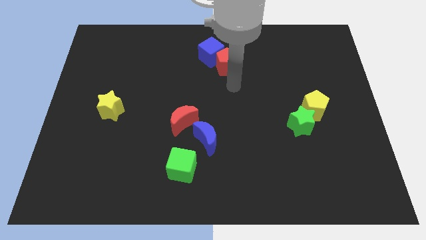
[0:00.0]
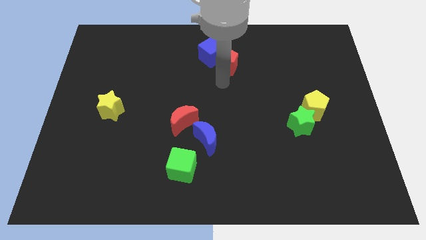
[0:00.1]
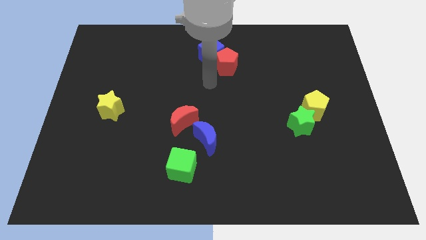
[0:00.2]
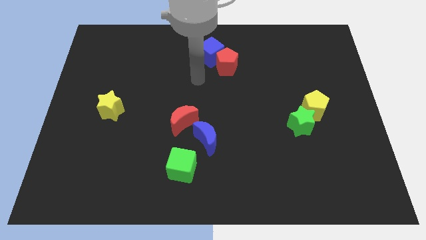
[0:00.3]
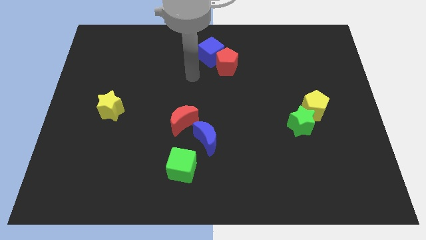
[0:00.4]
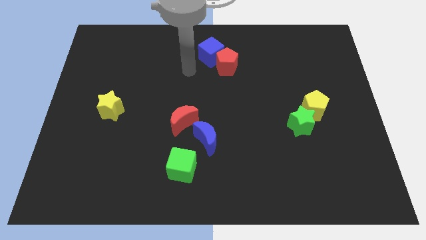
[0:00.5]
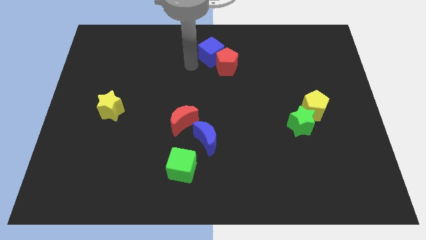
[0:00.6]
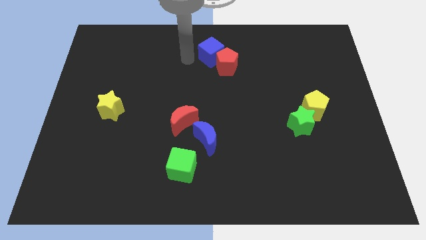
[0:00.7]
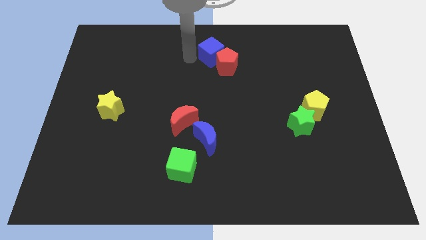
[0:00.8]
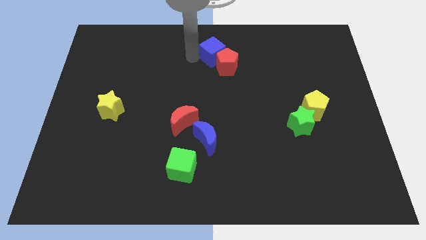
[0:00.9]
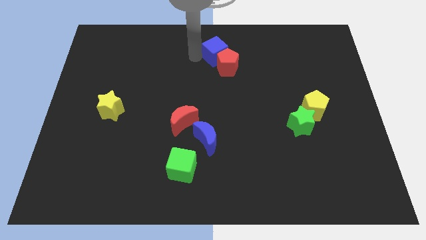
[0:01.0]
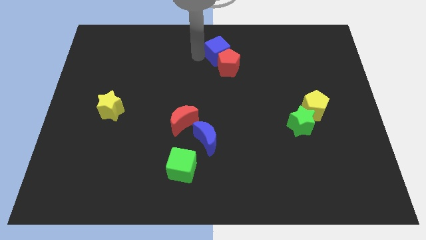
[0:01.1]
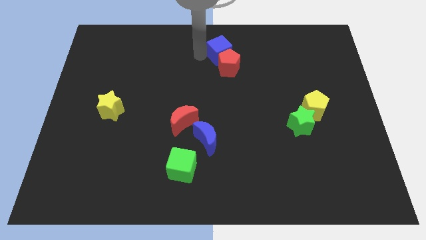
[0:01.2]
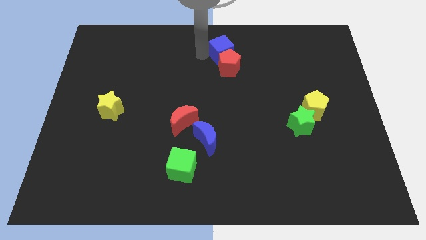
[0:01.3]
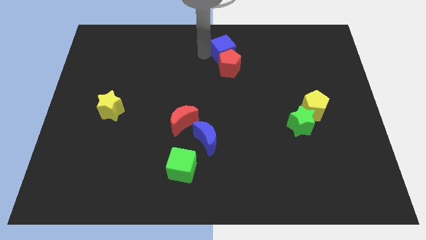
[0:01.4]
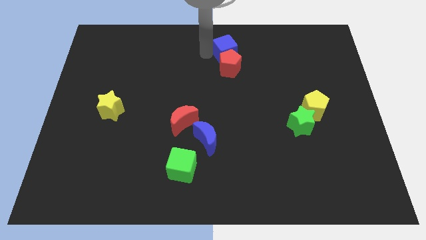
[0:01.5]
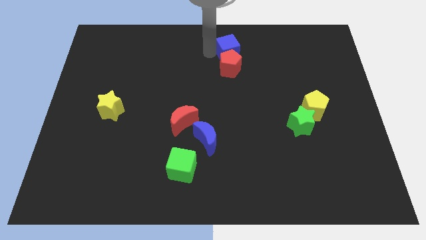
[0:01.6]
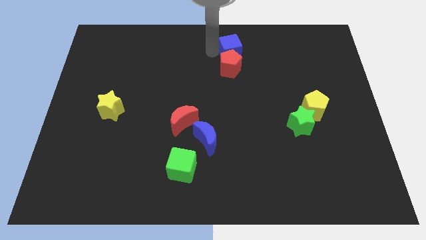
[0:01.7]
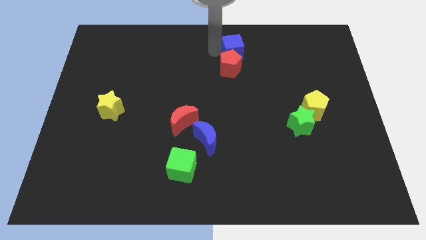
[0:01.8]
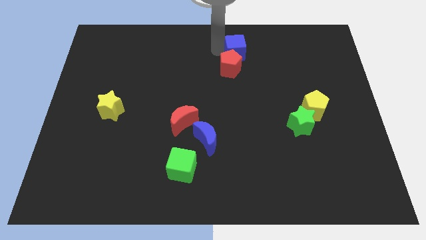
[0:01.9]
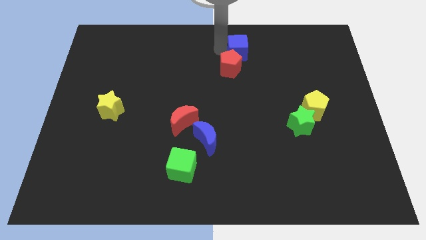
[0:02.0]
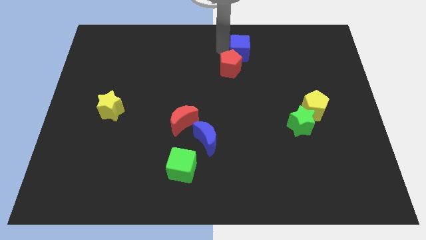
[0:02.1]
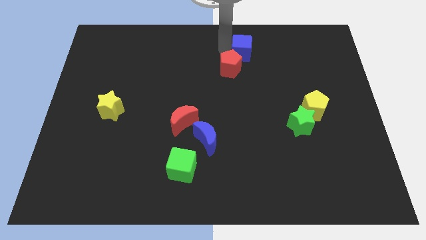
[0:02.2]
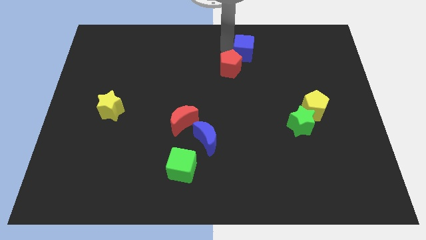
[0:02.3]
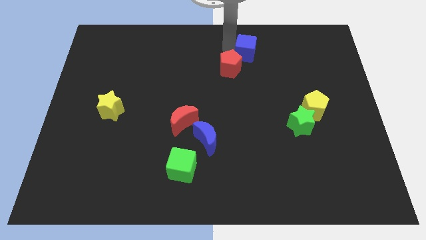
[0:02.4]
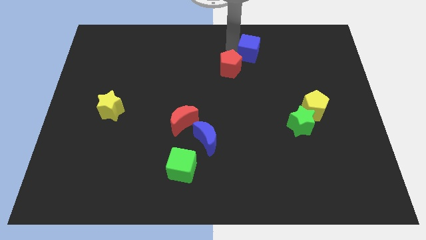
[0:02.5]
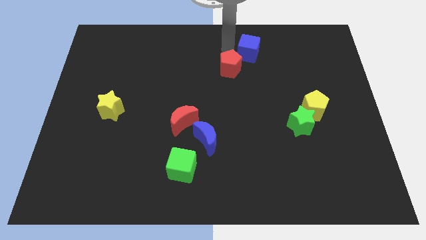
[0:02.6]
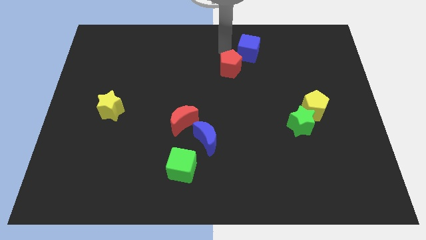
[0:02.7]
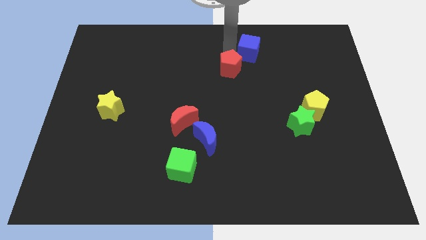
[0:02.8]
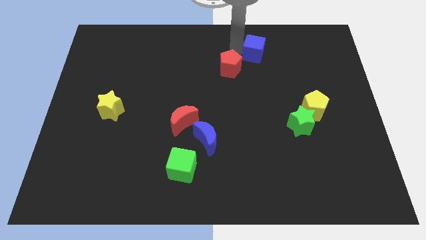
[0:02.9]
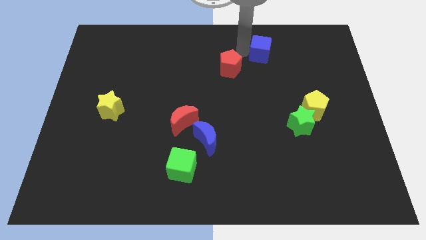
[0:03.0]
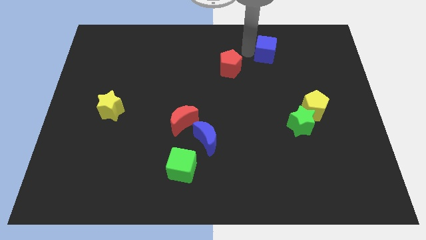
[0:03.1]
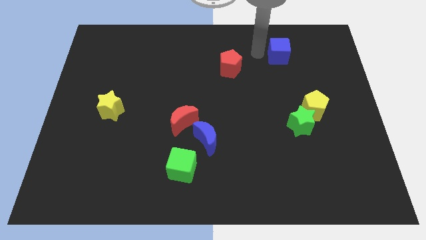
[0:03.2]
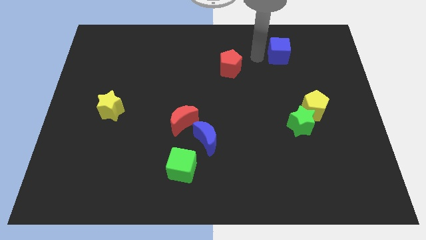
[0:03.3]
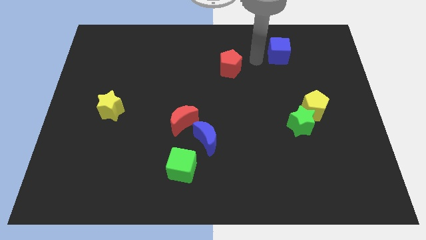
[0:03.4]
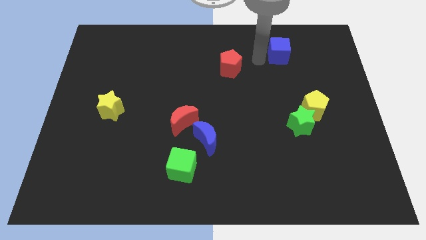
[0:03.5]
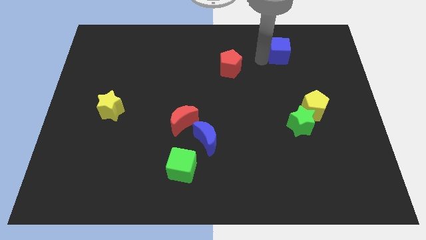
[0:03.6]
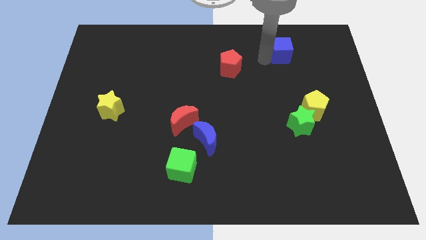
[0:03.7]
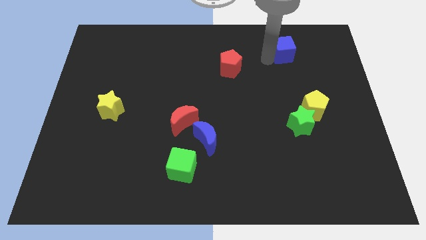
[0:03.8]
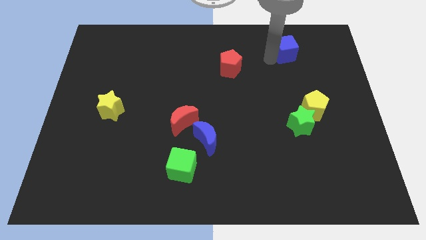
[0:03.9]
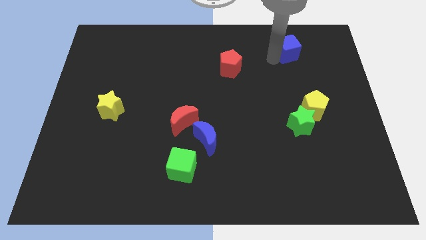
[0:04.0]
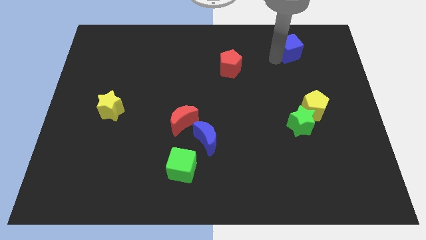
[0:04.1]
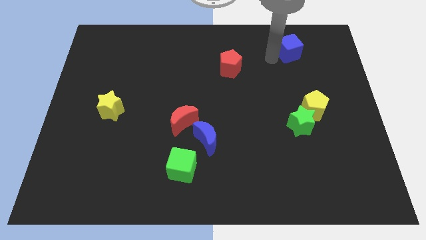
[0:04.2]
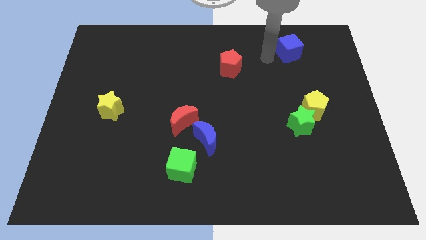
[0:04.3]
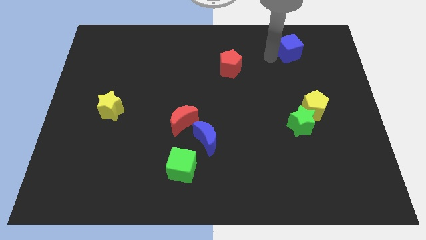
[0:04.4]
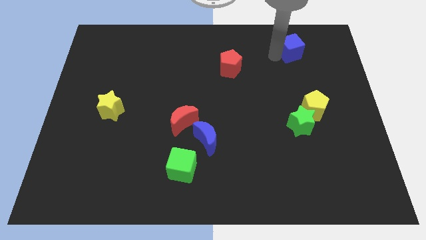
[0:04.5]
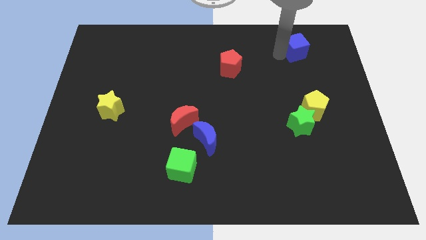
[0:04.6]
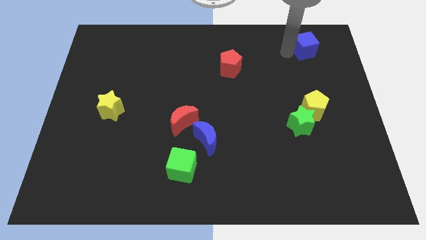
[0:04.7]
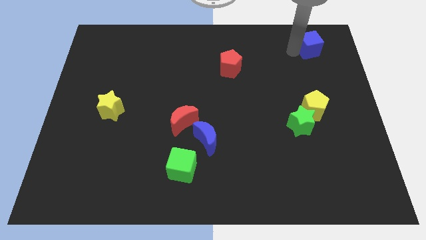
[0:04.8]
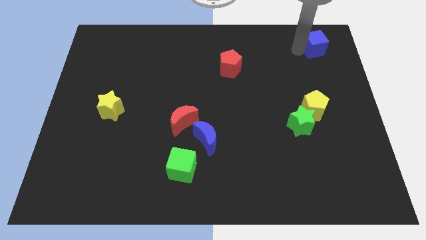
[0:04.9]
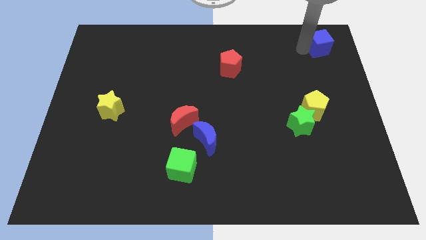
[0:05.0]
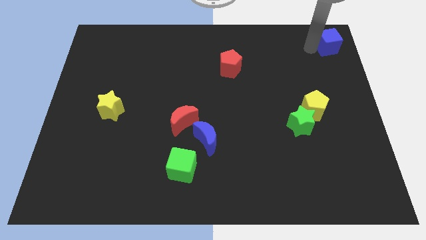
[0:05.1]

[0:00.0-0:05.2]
push the blue cube to the top right of the board

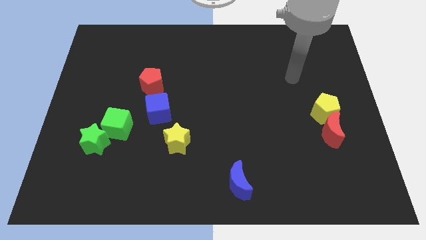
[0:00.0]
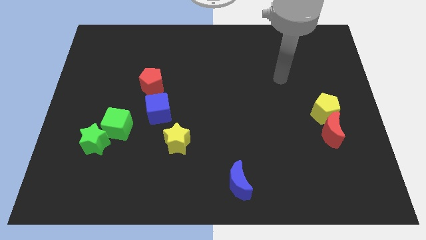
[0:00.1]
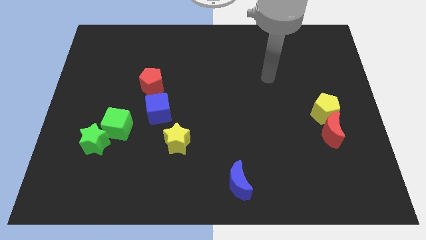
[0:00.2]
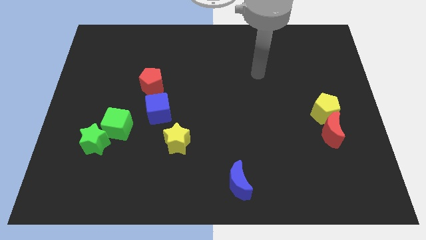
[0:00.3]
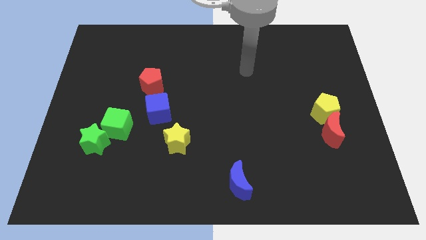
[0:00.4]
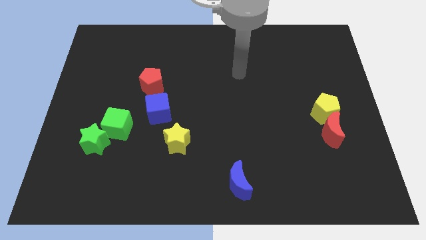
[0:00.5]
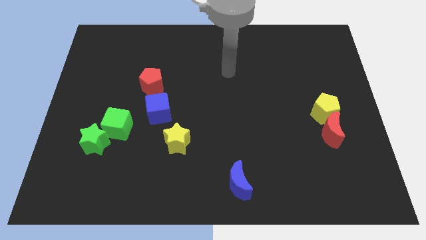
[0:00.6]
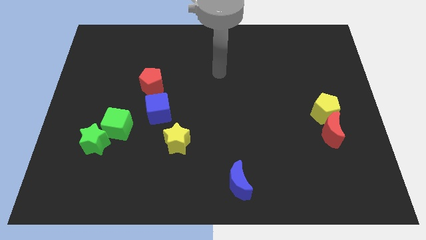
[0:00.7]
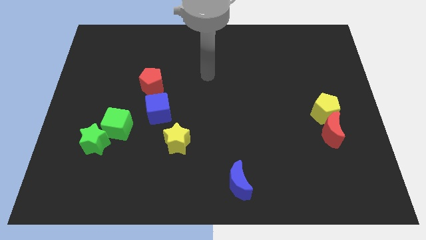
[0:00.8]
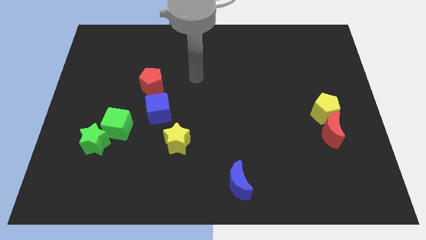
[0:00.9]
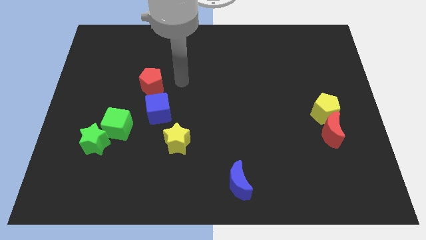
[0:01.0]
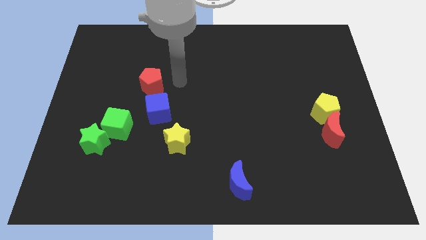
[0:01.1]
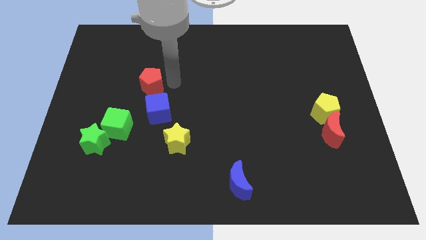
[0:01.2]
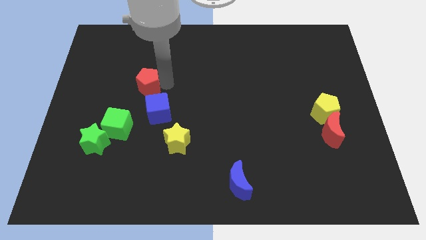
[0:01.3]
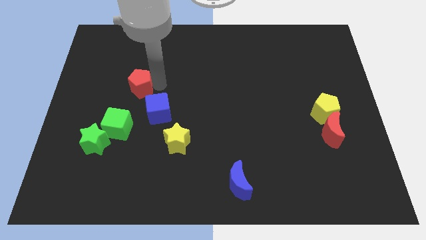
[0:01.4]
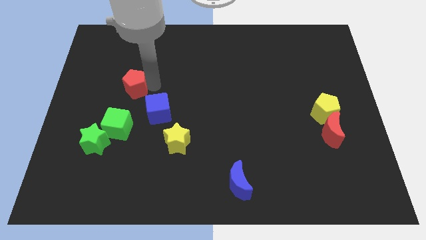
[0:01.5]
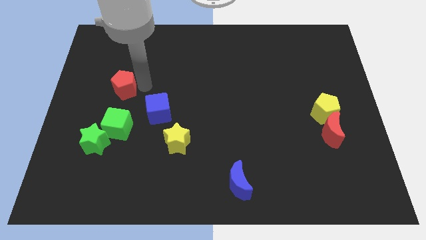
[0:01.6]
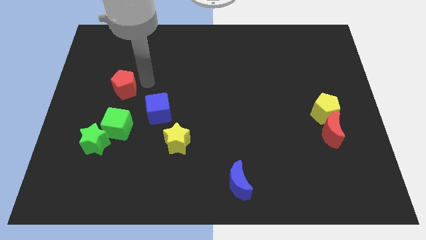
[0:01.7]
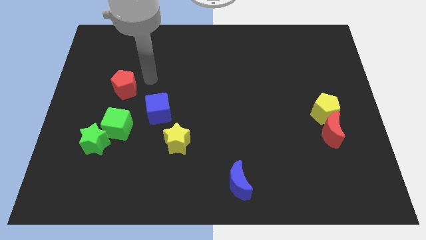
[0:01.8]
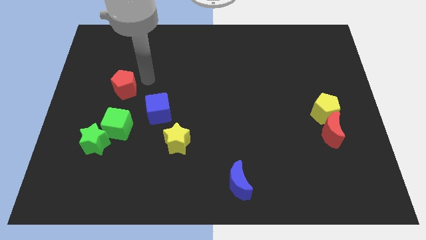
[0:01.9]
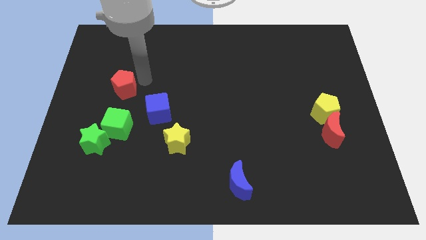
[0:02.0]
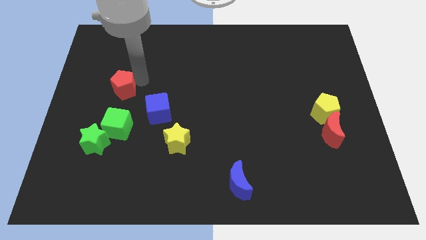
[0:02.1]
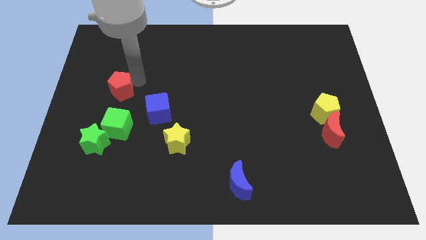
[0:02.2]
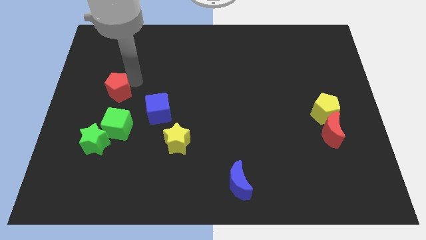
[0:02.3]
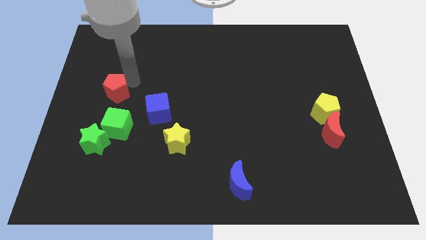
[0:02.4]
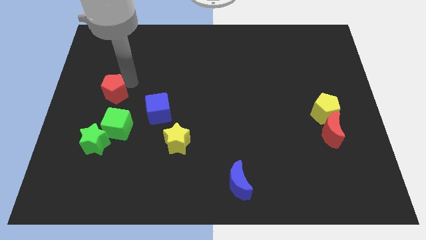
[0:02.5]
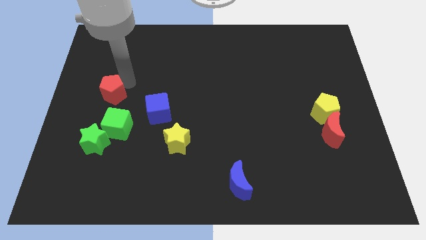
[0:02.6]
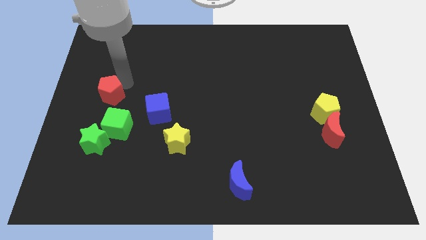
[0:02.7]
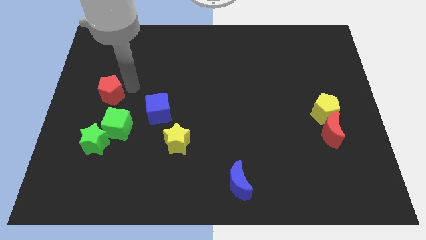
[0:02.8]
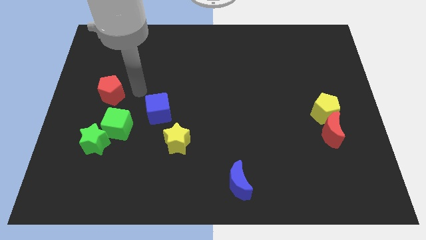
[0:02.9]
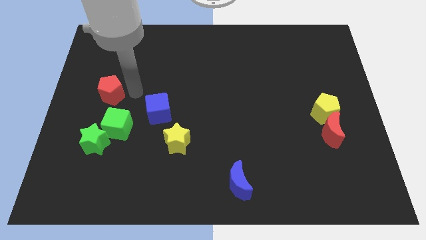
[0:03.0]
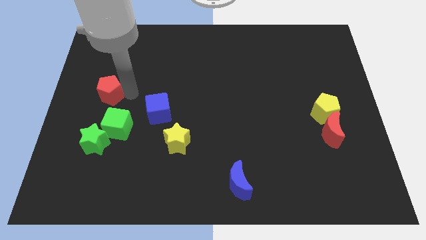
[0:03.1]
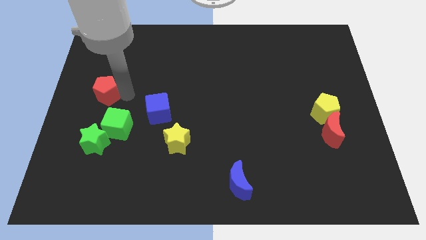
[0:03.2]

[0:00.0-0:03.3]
move the red pentagon to the left side
